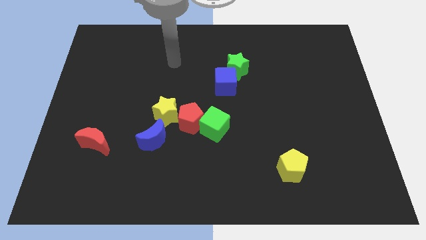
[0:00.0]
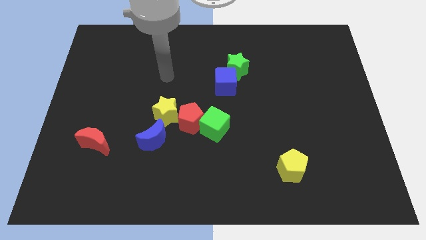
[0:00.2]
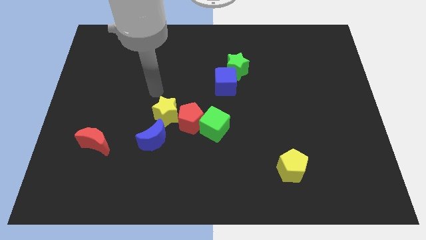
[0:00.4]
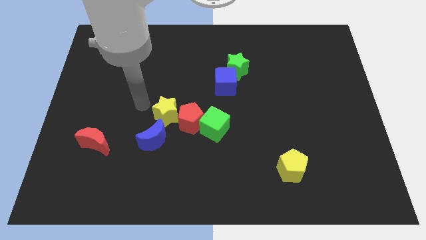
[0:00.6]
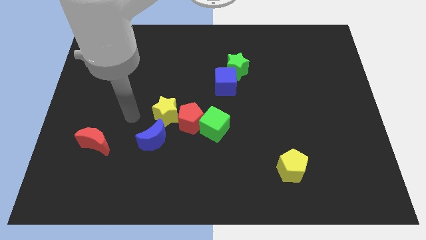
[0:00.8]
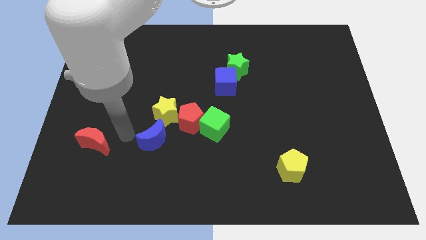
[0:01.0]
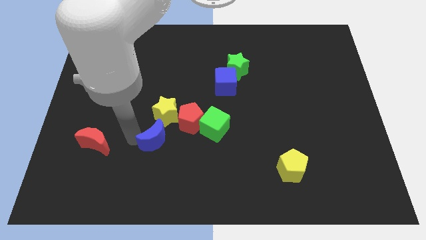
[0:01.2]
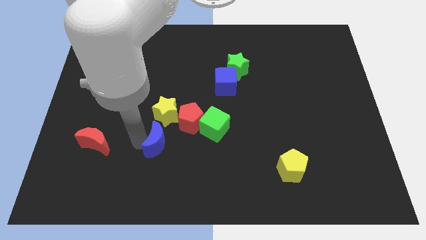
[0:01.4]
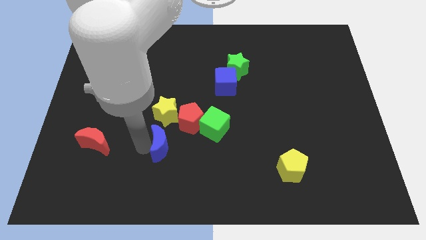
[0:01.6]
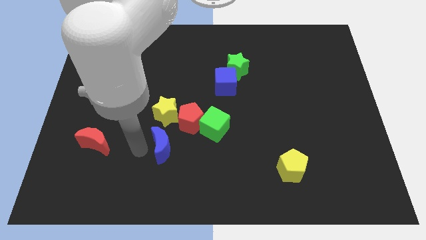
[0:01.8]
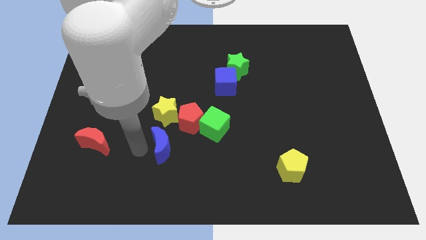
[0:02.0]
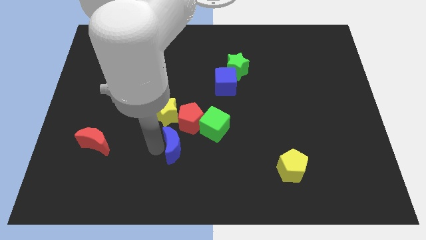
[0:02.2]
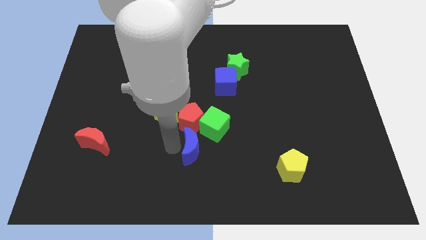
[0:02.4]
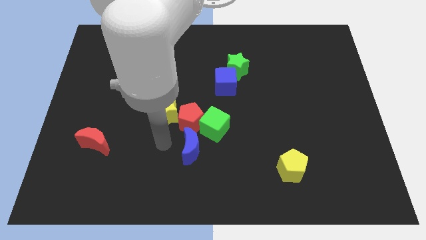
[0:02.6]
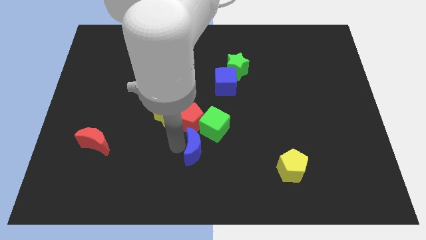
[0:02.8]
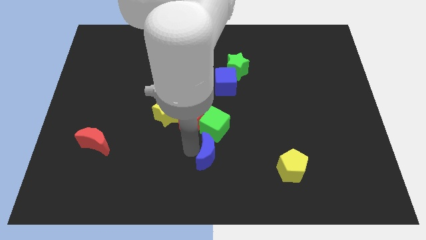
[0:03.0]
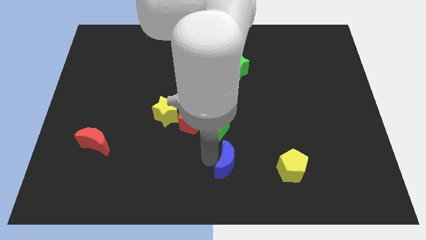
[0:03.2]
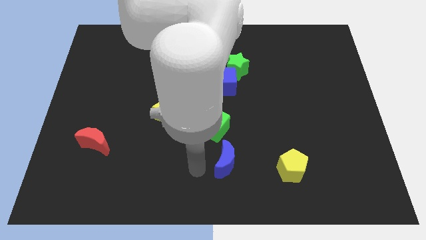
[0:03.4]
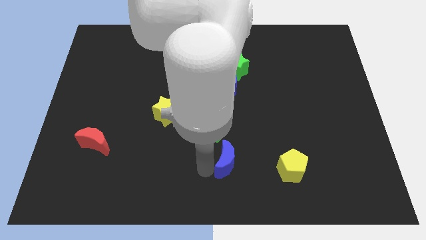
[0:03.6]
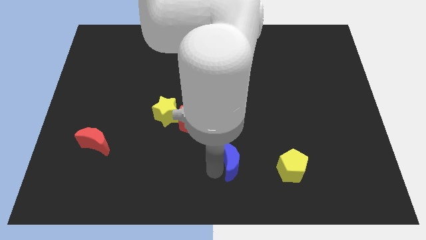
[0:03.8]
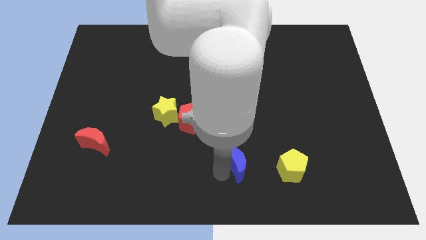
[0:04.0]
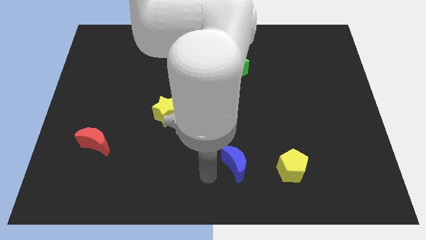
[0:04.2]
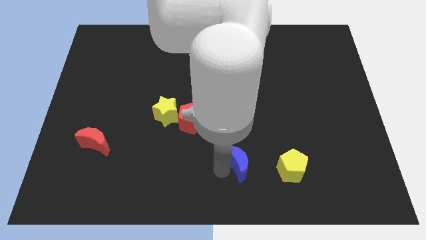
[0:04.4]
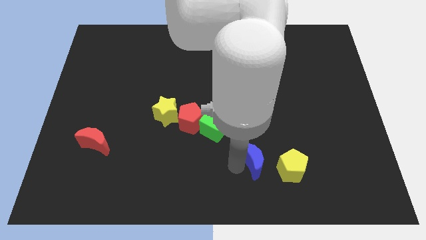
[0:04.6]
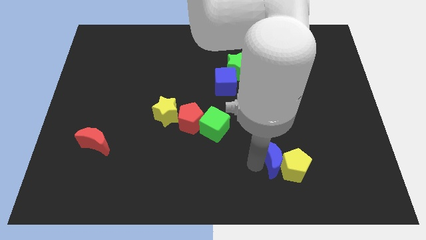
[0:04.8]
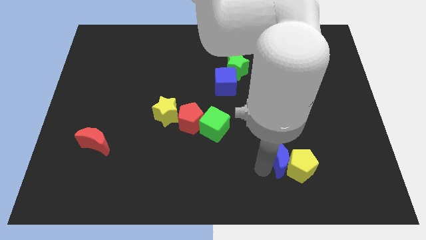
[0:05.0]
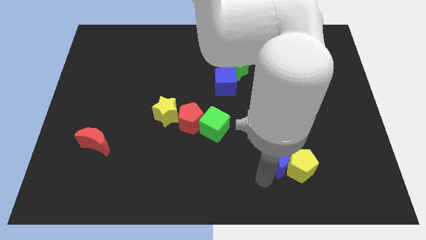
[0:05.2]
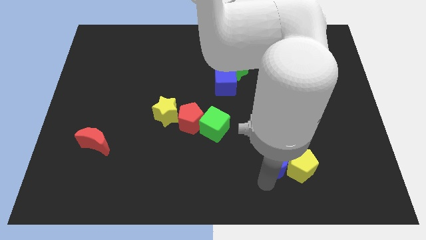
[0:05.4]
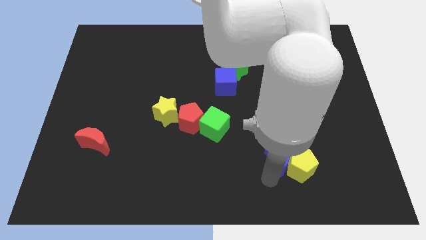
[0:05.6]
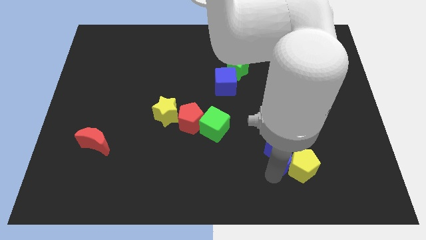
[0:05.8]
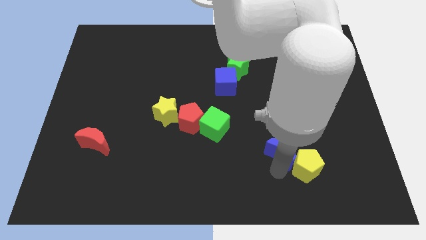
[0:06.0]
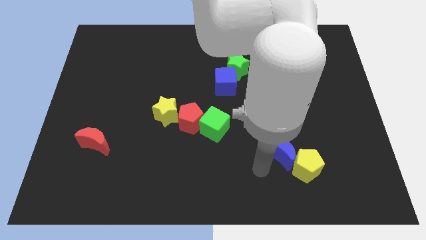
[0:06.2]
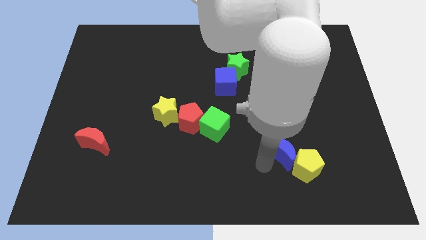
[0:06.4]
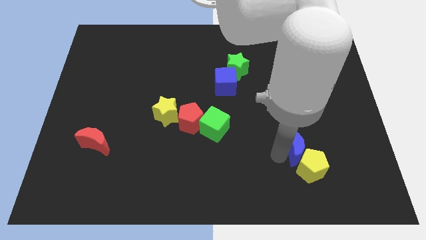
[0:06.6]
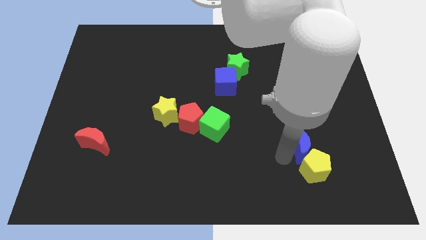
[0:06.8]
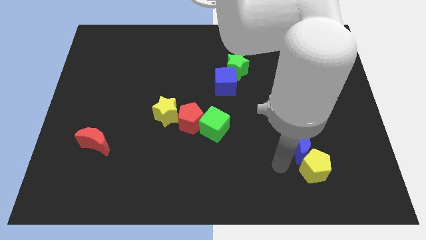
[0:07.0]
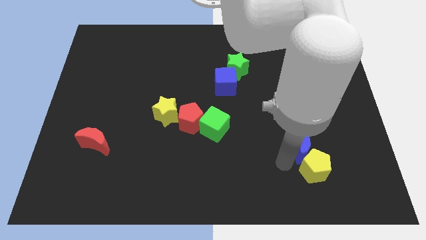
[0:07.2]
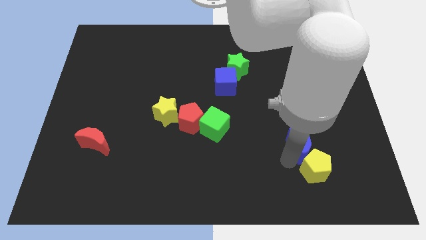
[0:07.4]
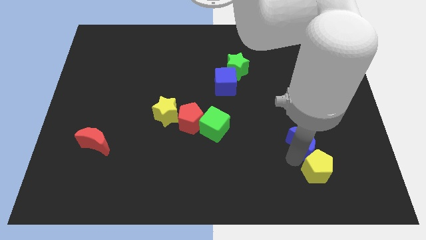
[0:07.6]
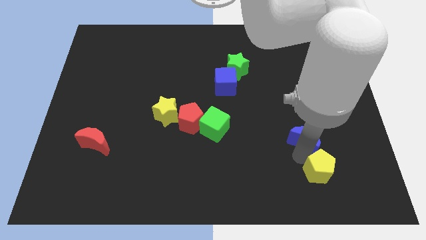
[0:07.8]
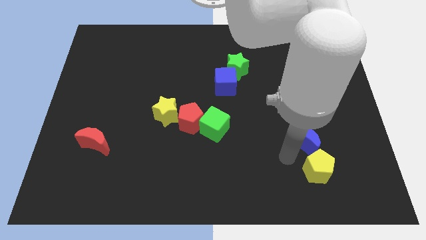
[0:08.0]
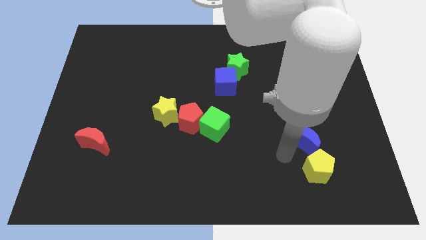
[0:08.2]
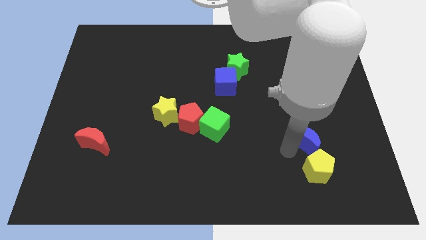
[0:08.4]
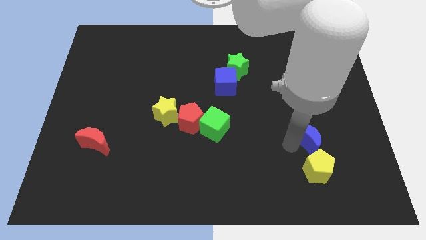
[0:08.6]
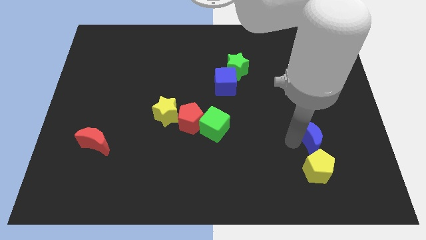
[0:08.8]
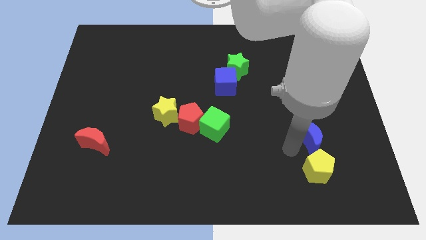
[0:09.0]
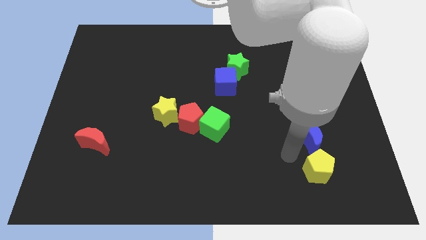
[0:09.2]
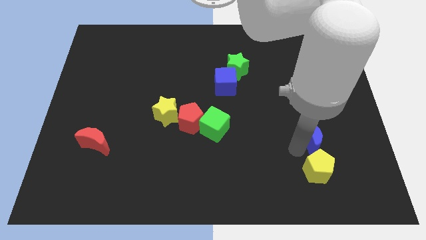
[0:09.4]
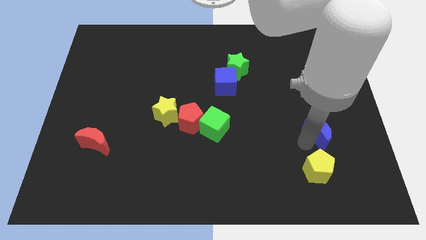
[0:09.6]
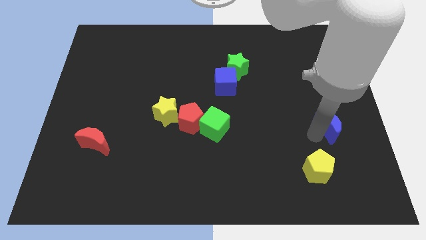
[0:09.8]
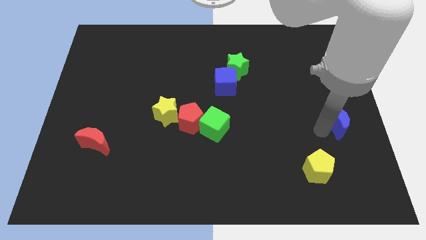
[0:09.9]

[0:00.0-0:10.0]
slide the blue moon to the center right

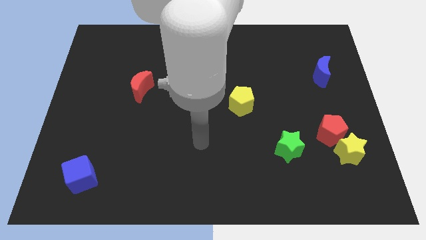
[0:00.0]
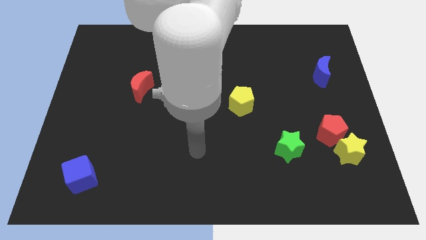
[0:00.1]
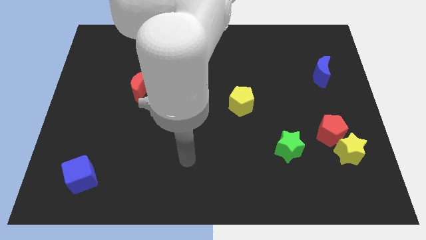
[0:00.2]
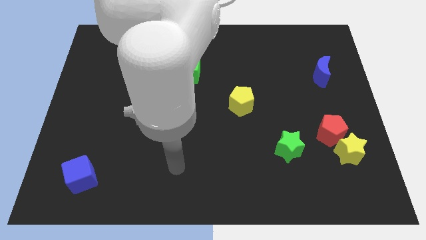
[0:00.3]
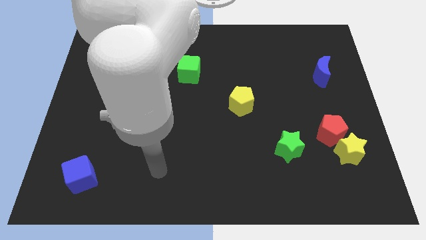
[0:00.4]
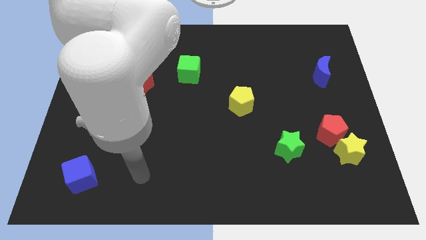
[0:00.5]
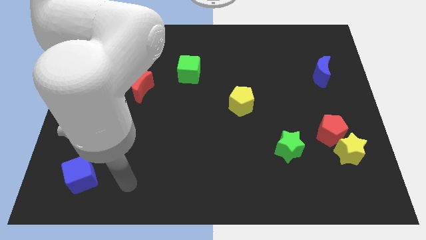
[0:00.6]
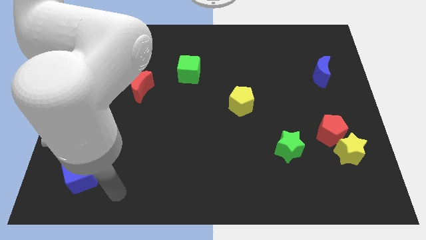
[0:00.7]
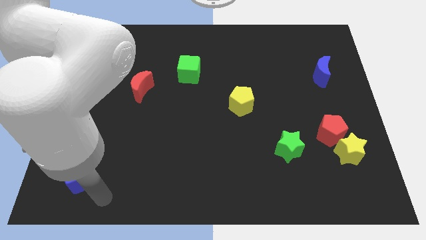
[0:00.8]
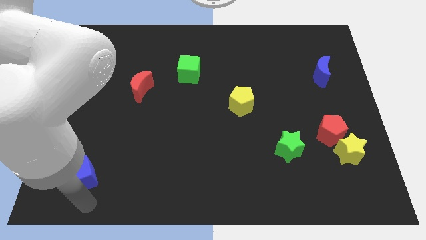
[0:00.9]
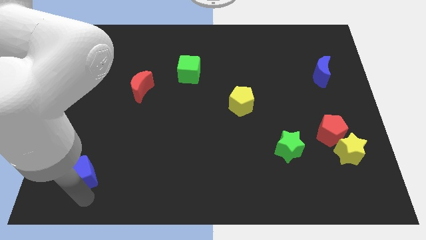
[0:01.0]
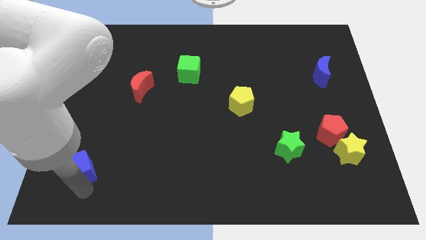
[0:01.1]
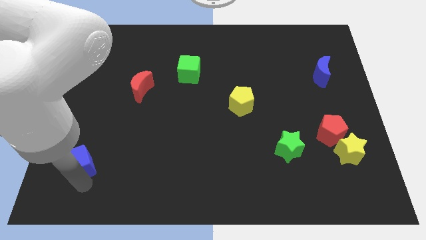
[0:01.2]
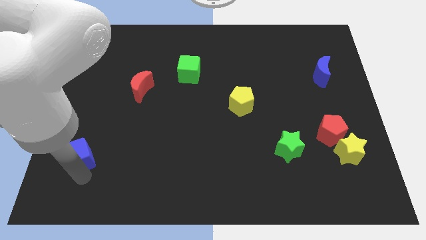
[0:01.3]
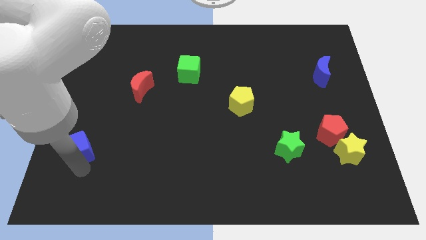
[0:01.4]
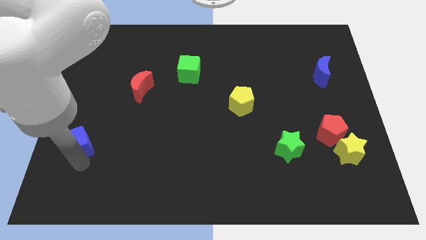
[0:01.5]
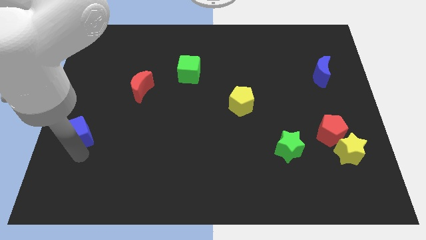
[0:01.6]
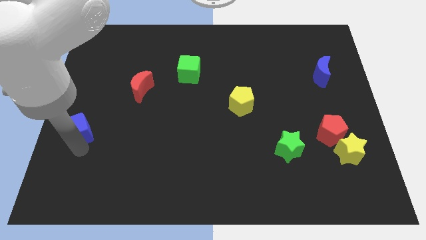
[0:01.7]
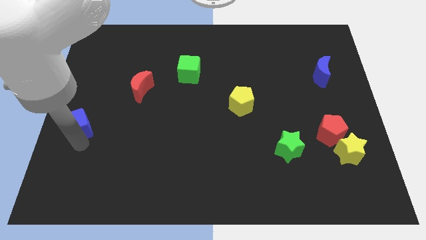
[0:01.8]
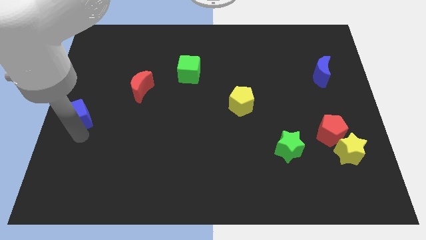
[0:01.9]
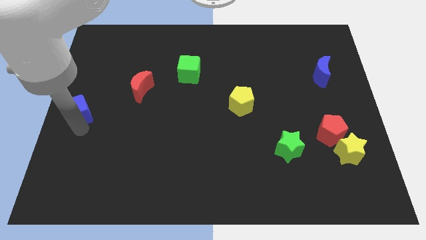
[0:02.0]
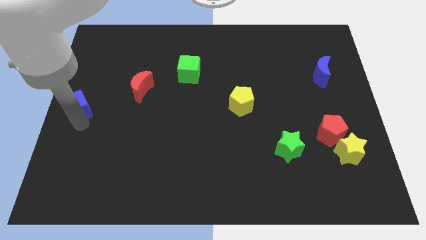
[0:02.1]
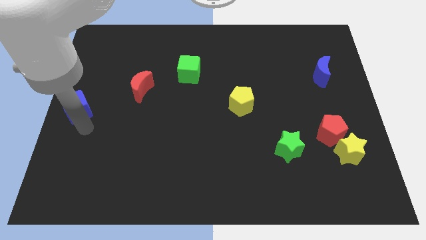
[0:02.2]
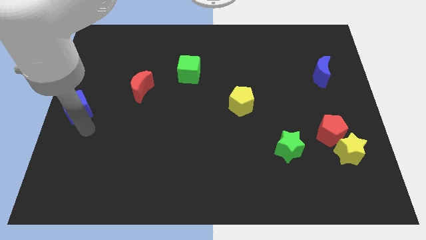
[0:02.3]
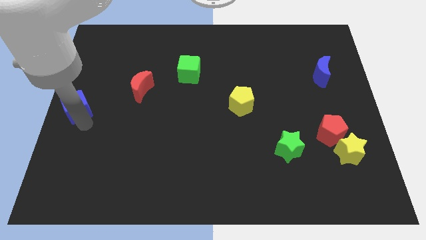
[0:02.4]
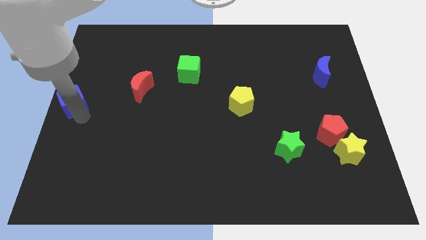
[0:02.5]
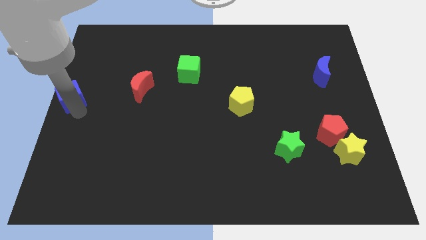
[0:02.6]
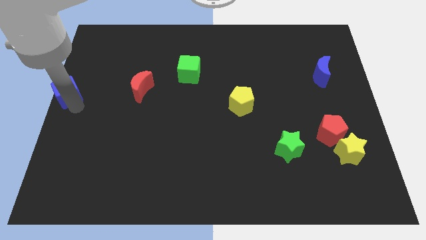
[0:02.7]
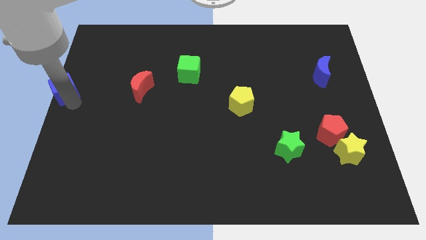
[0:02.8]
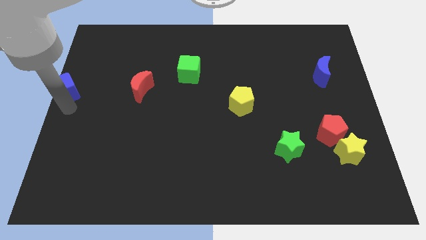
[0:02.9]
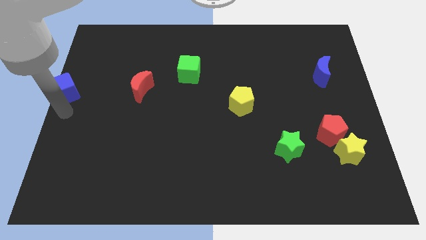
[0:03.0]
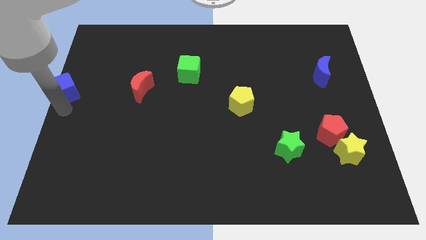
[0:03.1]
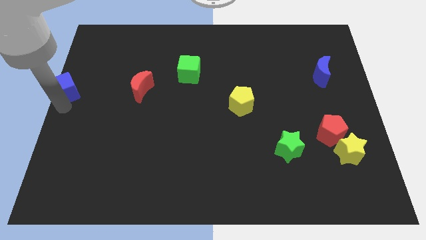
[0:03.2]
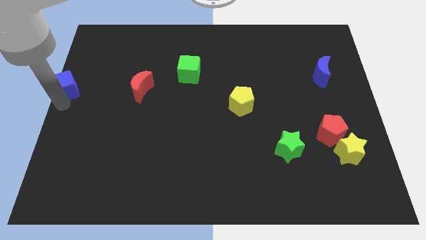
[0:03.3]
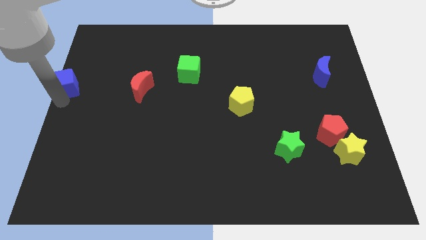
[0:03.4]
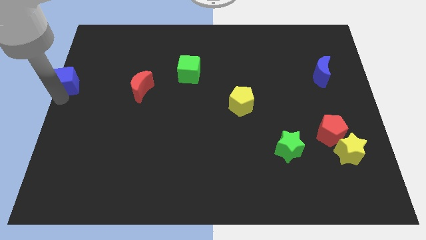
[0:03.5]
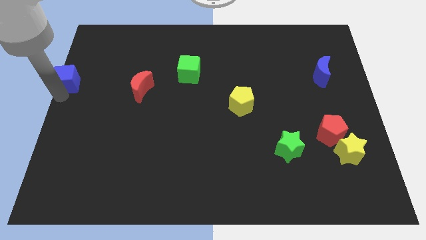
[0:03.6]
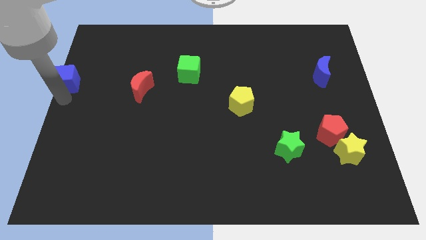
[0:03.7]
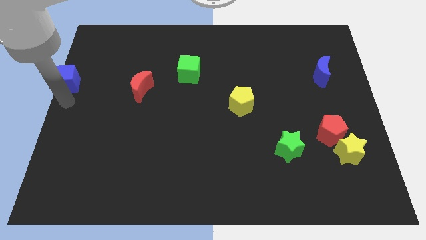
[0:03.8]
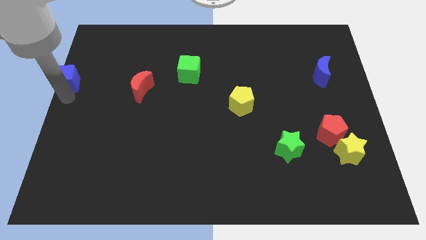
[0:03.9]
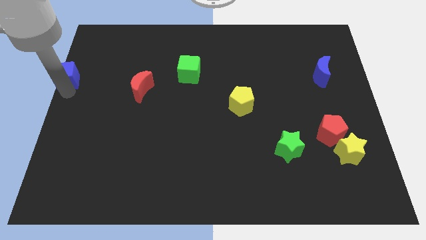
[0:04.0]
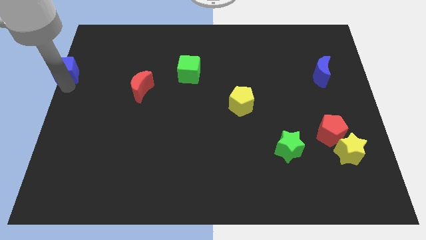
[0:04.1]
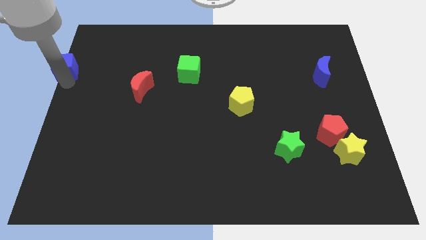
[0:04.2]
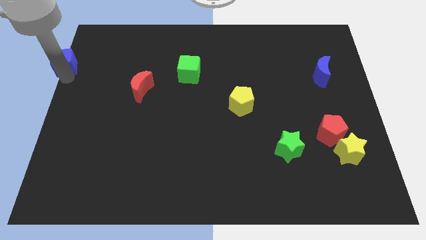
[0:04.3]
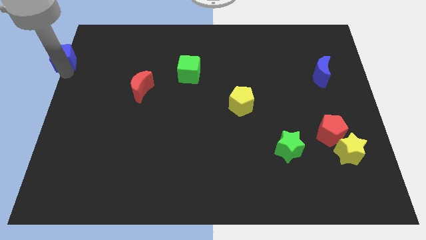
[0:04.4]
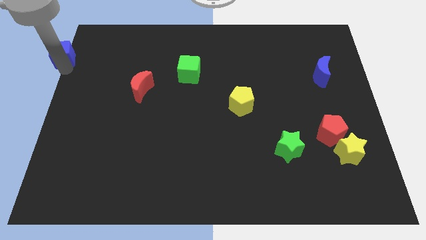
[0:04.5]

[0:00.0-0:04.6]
slide the blue cube to the top left
